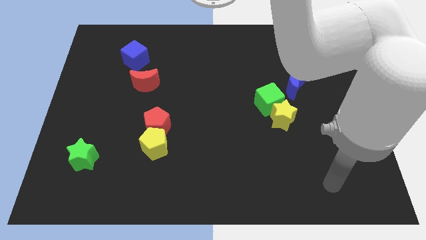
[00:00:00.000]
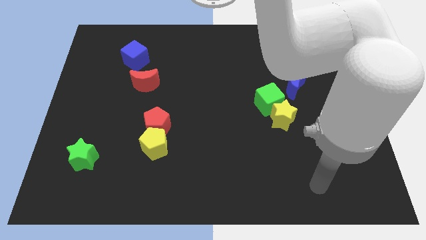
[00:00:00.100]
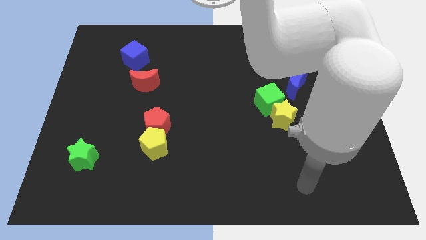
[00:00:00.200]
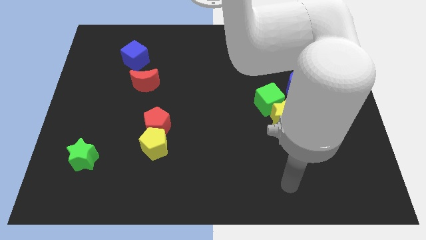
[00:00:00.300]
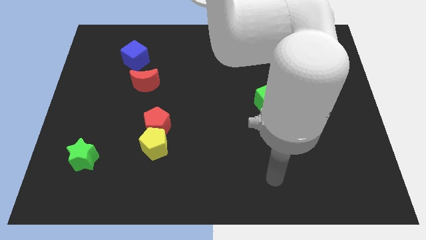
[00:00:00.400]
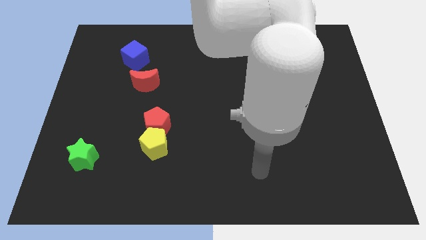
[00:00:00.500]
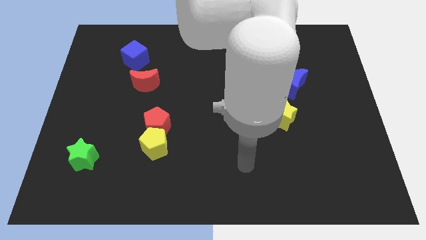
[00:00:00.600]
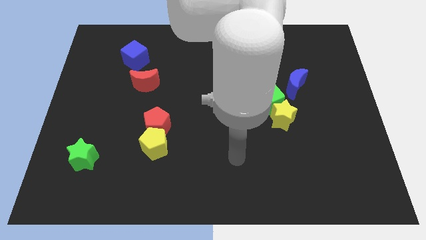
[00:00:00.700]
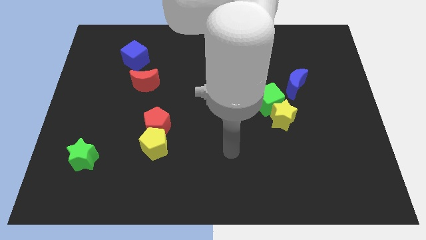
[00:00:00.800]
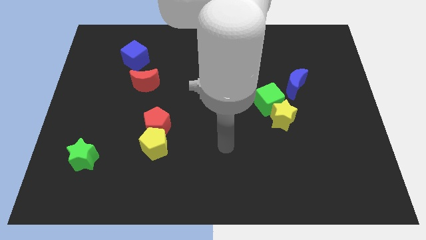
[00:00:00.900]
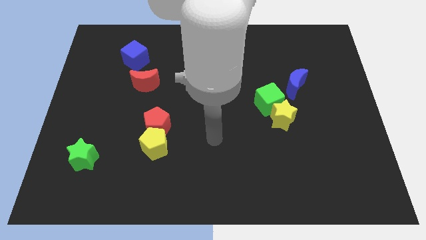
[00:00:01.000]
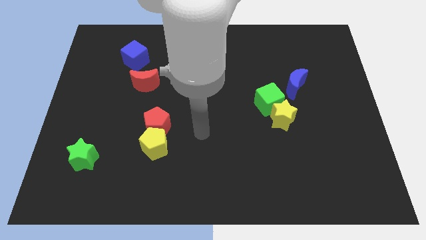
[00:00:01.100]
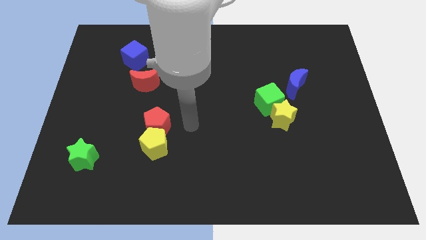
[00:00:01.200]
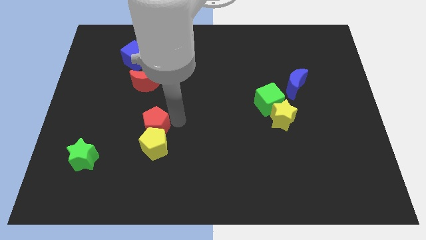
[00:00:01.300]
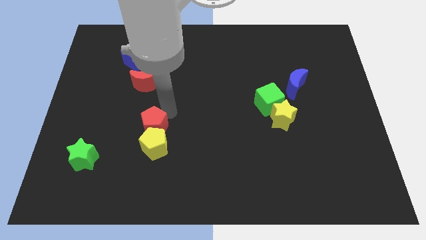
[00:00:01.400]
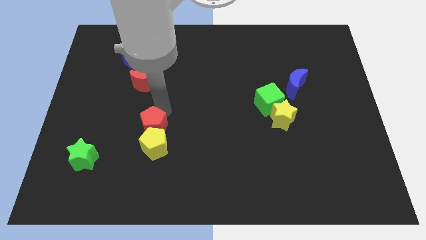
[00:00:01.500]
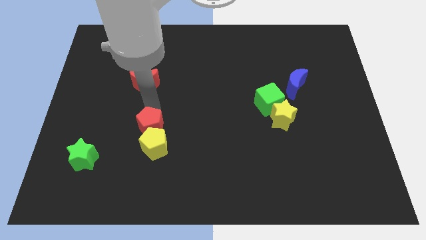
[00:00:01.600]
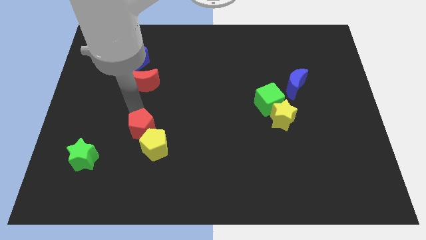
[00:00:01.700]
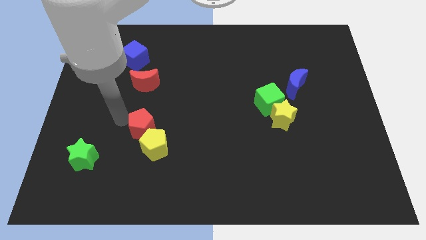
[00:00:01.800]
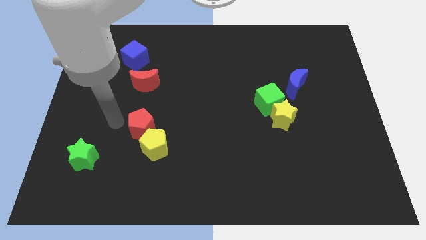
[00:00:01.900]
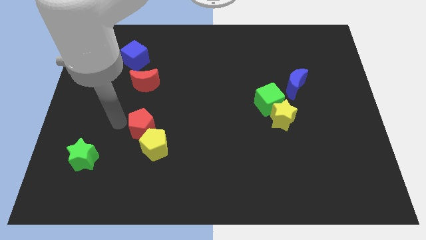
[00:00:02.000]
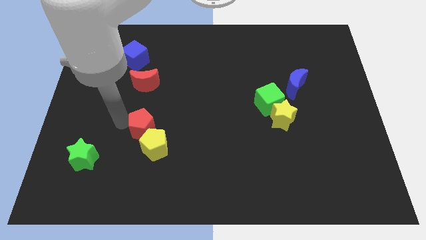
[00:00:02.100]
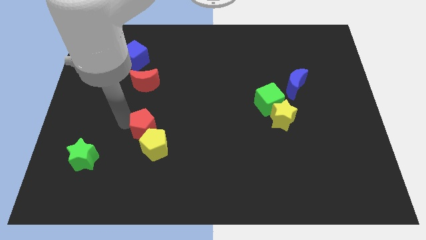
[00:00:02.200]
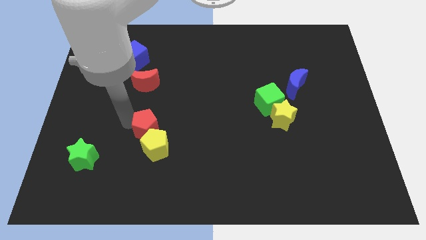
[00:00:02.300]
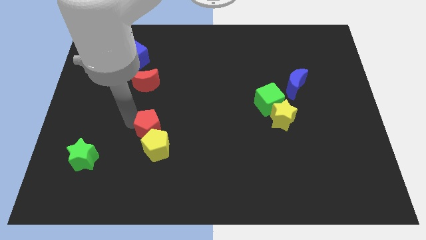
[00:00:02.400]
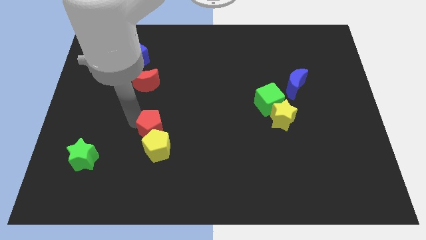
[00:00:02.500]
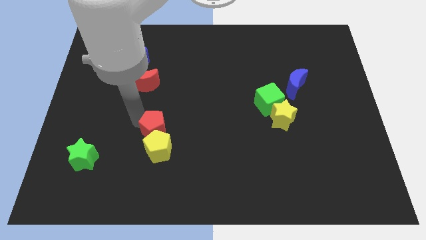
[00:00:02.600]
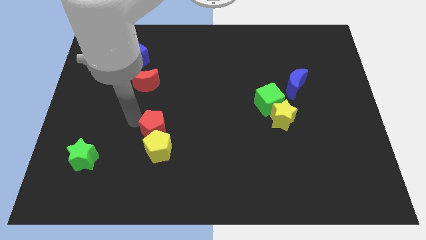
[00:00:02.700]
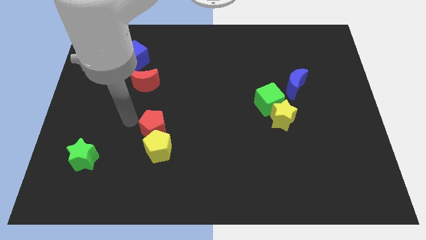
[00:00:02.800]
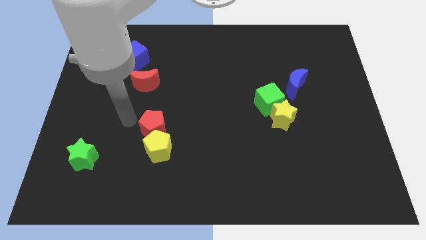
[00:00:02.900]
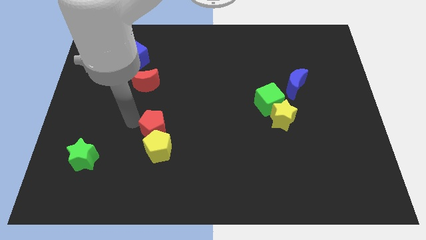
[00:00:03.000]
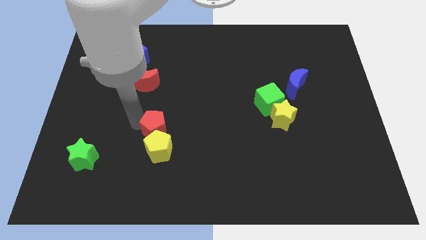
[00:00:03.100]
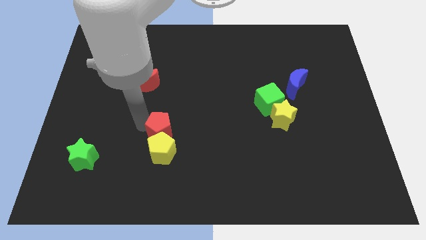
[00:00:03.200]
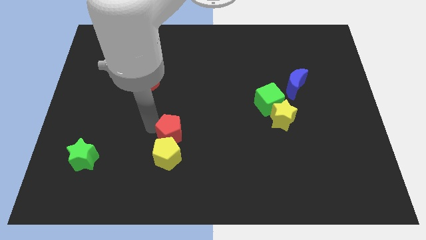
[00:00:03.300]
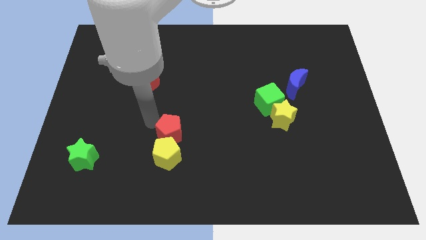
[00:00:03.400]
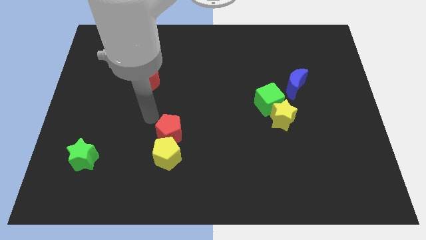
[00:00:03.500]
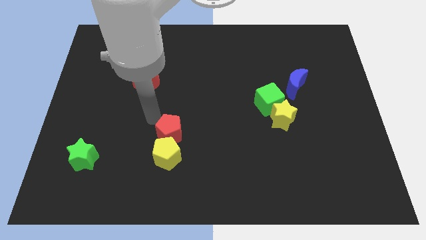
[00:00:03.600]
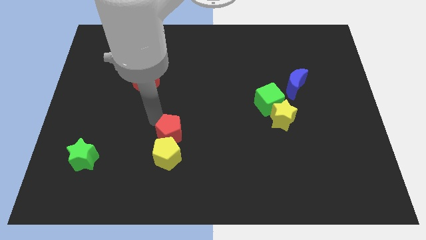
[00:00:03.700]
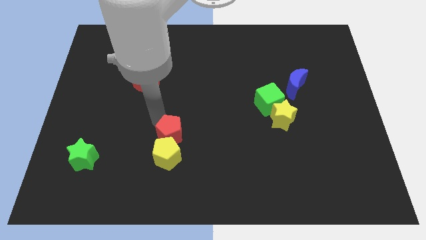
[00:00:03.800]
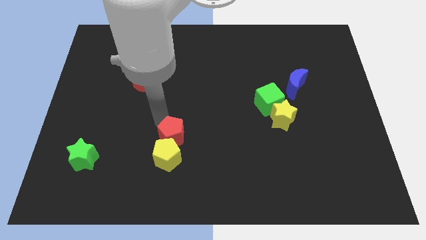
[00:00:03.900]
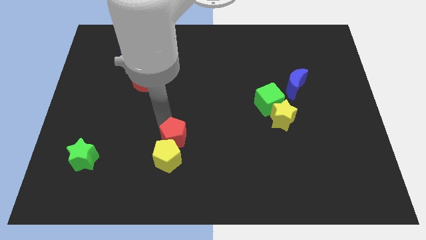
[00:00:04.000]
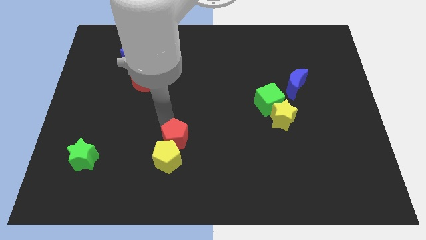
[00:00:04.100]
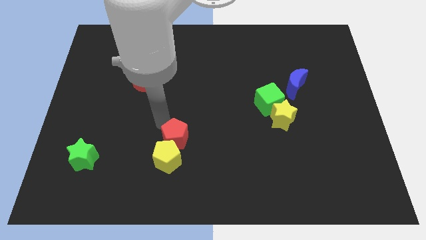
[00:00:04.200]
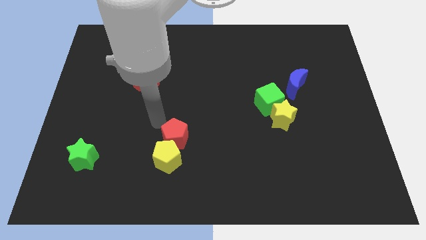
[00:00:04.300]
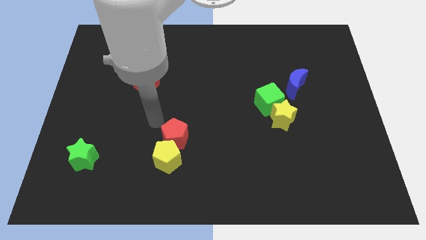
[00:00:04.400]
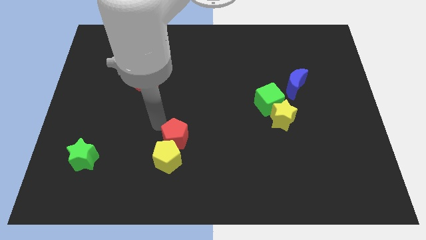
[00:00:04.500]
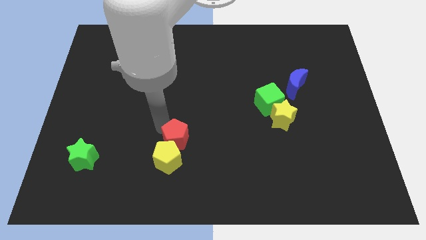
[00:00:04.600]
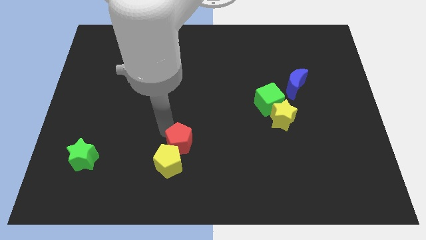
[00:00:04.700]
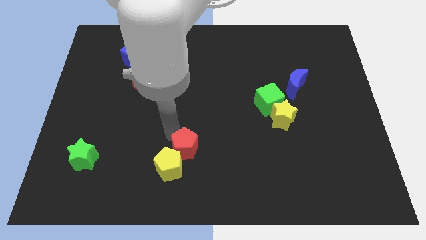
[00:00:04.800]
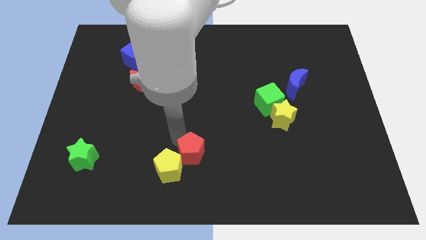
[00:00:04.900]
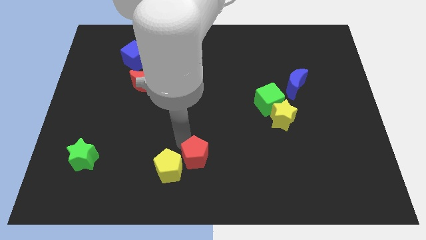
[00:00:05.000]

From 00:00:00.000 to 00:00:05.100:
move the red pentagon to the bottom side

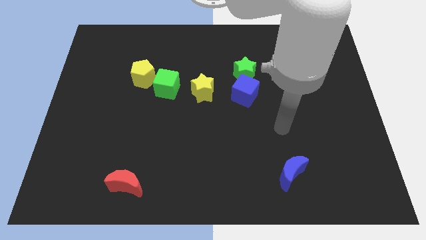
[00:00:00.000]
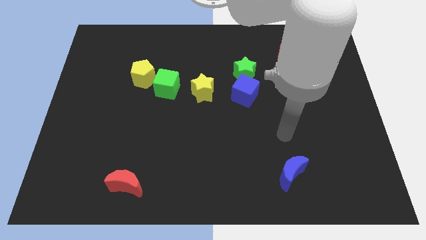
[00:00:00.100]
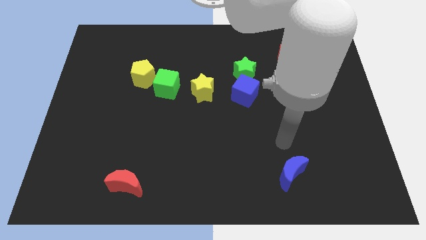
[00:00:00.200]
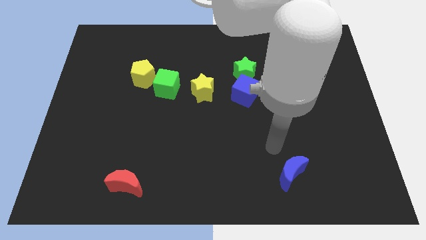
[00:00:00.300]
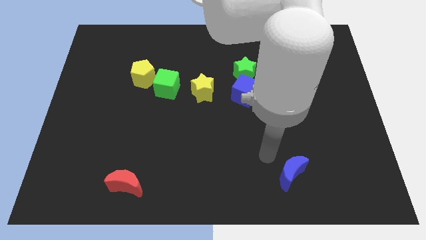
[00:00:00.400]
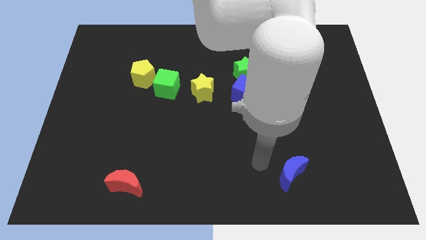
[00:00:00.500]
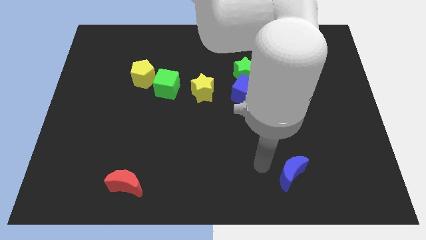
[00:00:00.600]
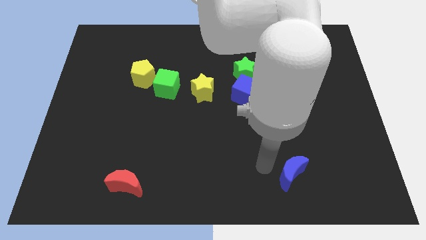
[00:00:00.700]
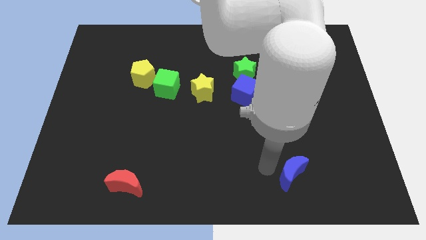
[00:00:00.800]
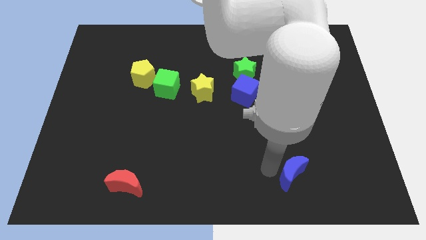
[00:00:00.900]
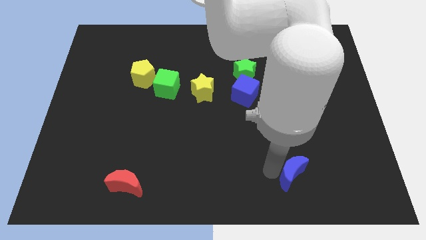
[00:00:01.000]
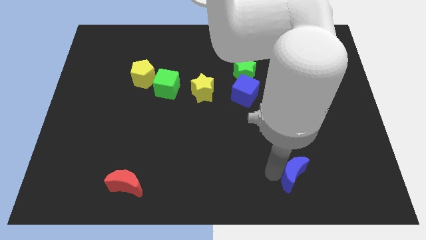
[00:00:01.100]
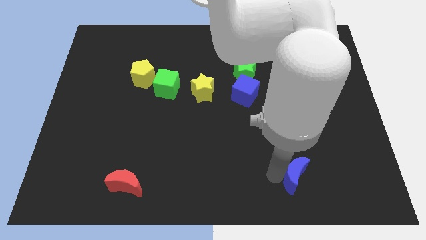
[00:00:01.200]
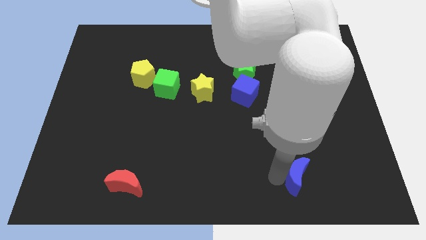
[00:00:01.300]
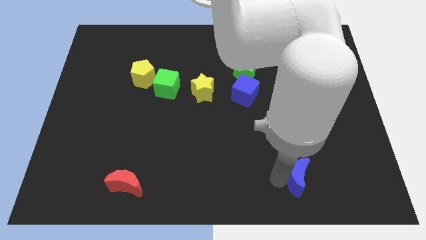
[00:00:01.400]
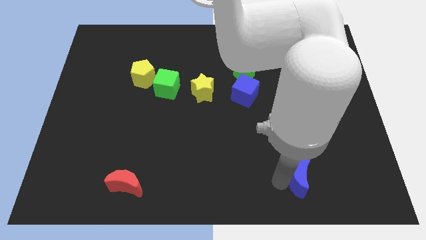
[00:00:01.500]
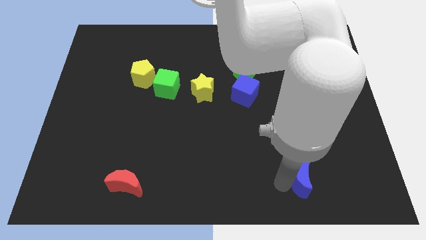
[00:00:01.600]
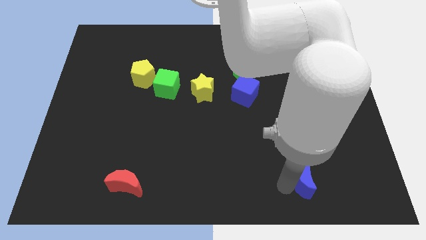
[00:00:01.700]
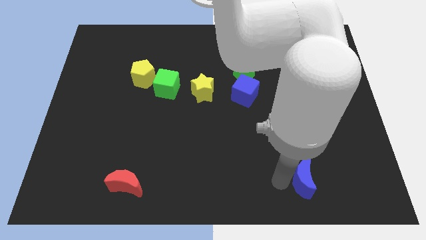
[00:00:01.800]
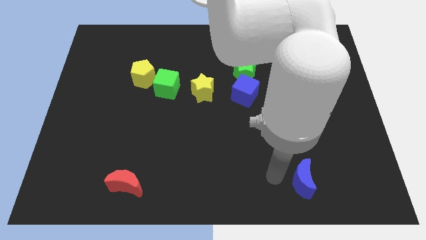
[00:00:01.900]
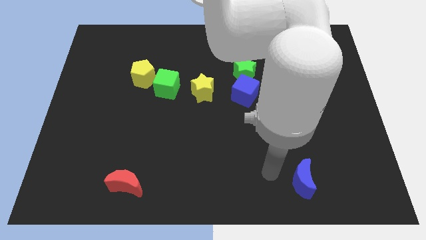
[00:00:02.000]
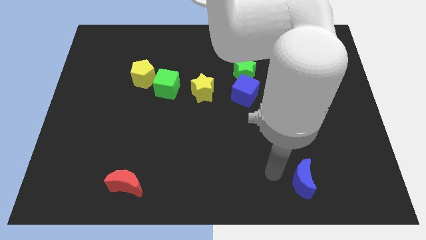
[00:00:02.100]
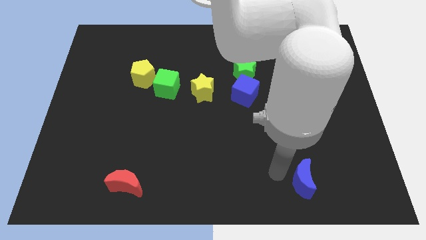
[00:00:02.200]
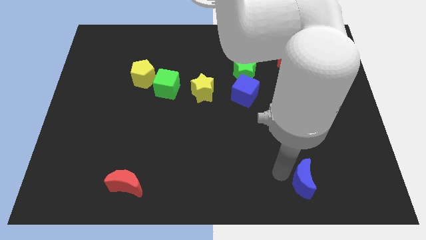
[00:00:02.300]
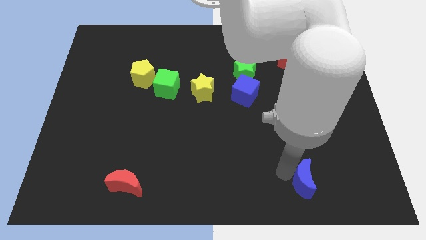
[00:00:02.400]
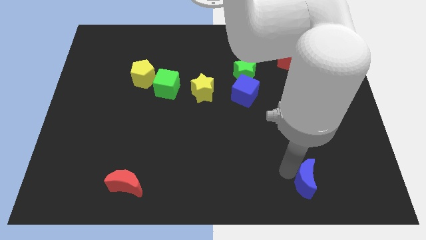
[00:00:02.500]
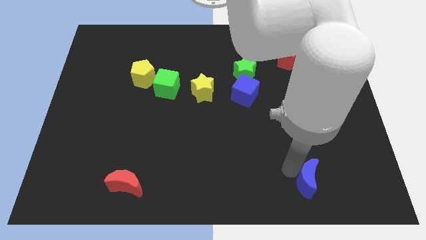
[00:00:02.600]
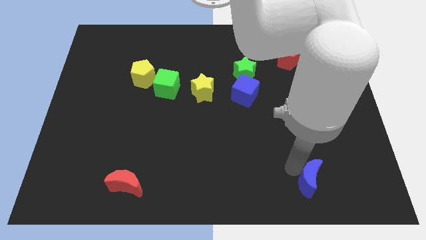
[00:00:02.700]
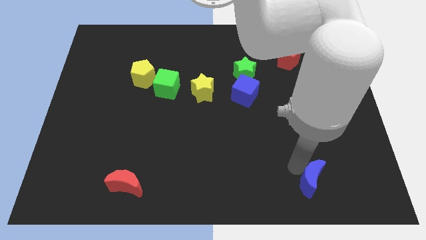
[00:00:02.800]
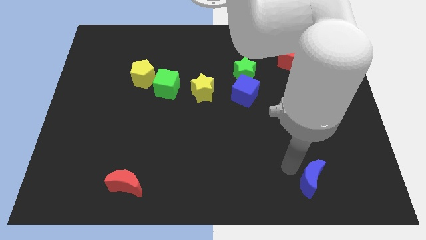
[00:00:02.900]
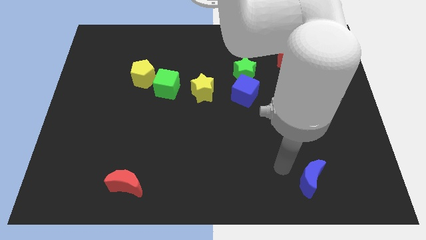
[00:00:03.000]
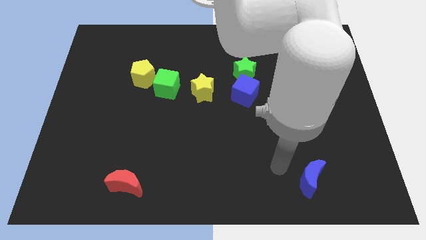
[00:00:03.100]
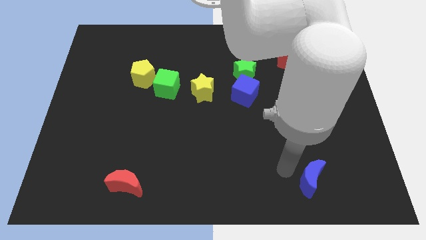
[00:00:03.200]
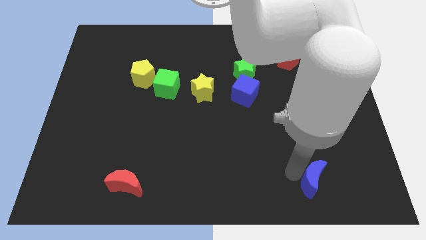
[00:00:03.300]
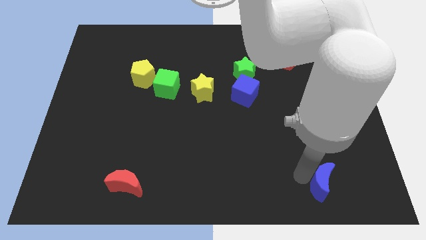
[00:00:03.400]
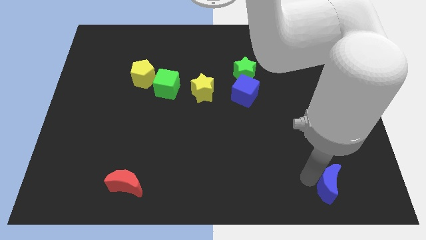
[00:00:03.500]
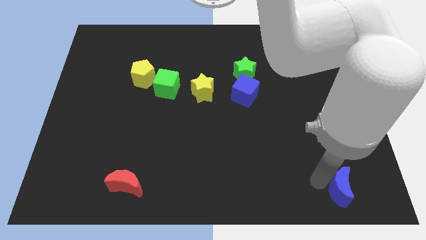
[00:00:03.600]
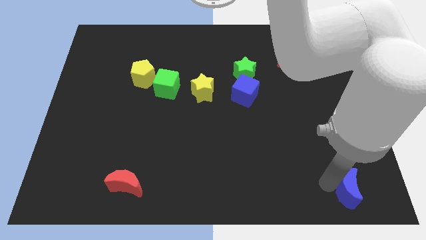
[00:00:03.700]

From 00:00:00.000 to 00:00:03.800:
move the blue moon to the bottom right
